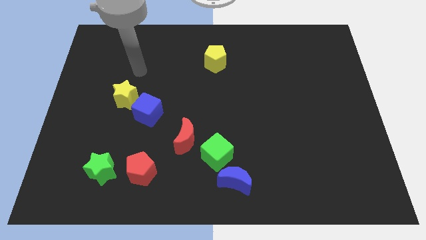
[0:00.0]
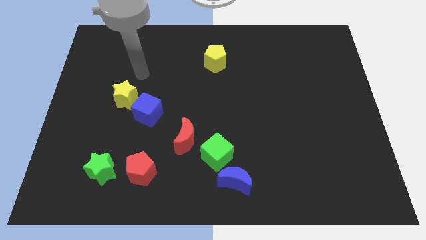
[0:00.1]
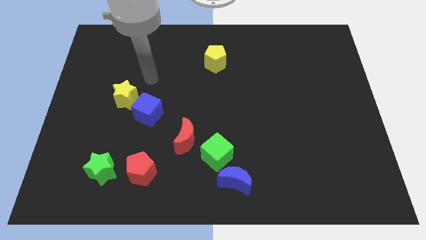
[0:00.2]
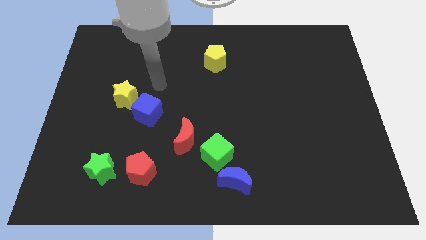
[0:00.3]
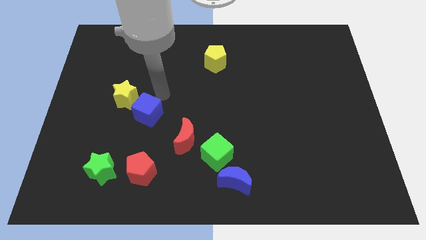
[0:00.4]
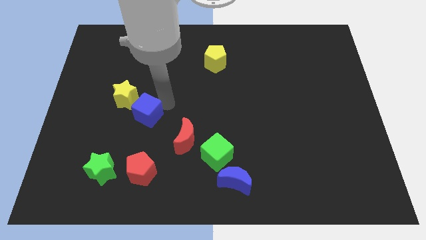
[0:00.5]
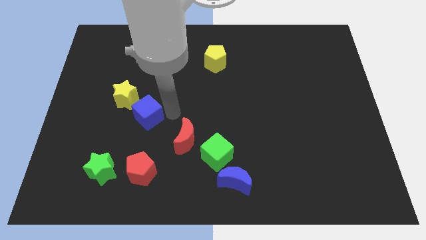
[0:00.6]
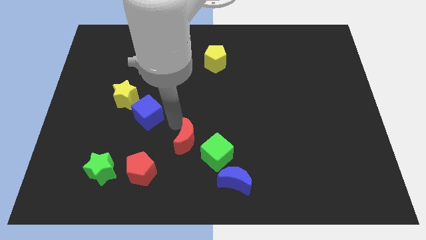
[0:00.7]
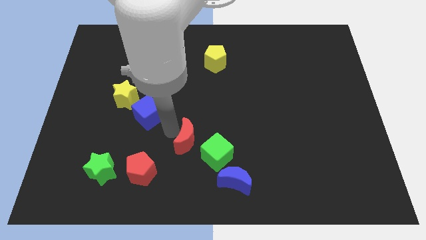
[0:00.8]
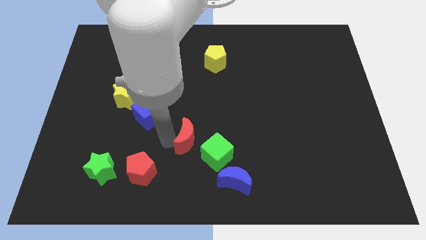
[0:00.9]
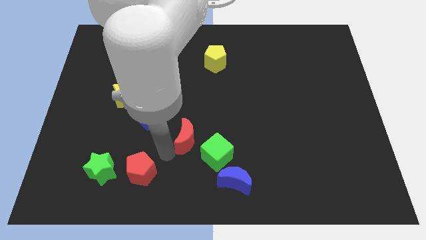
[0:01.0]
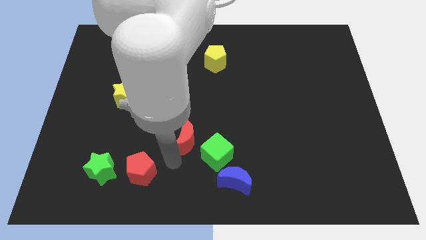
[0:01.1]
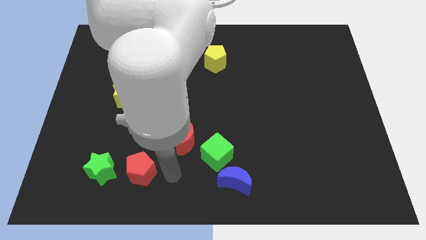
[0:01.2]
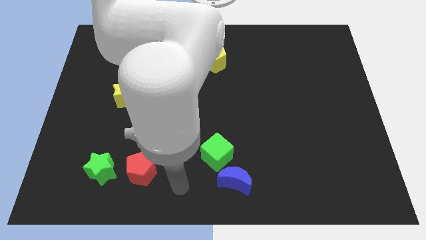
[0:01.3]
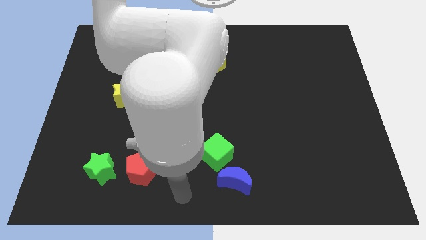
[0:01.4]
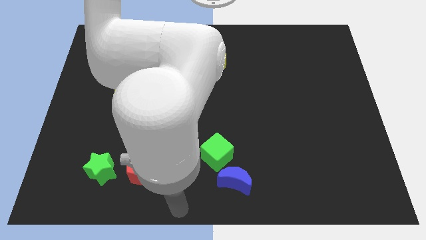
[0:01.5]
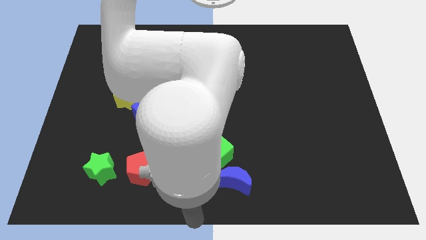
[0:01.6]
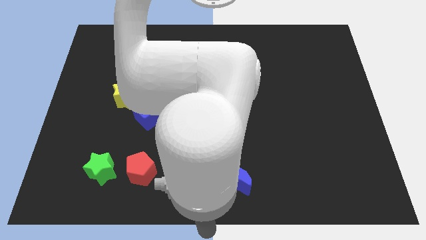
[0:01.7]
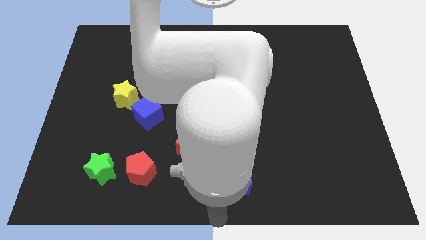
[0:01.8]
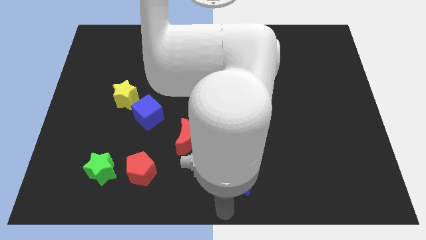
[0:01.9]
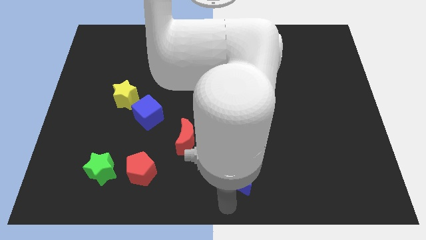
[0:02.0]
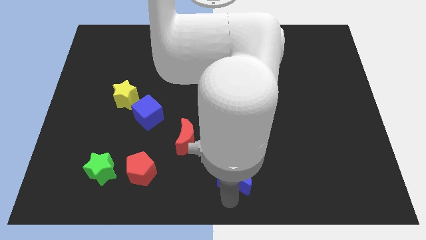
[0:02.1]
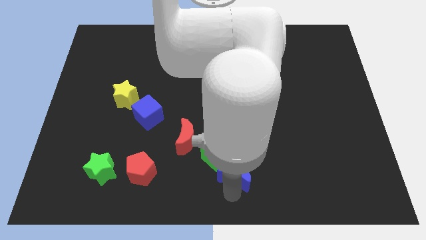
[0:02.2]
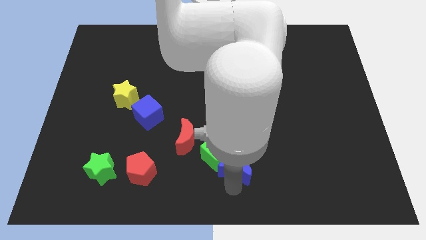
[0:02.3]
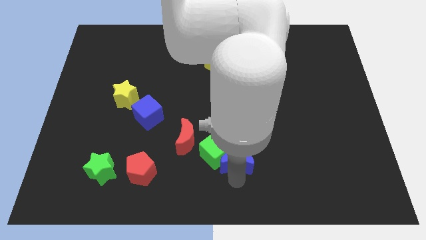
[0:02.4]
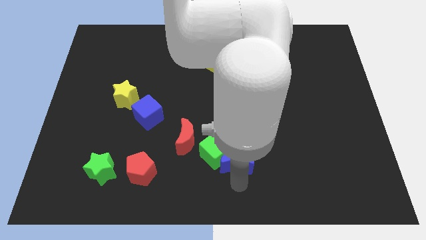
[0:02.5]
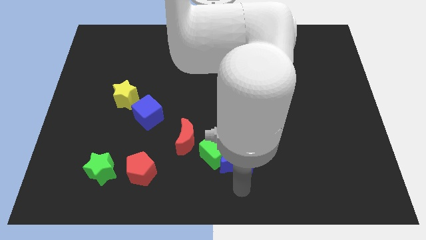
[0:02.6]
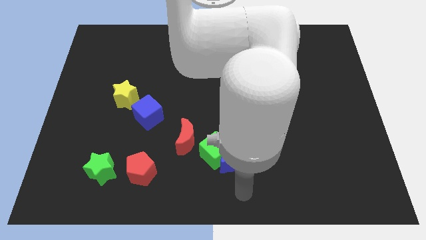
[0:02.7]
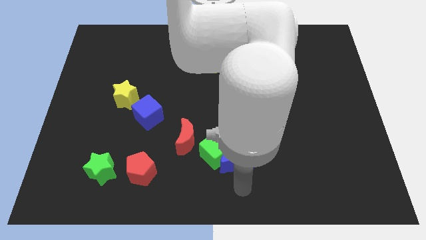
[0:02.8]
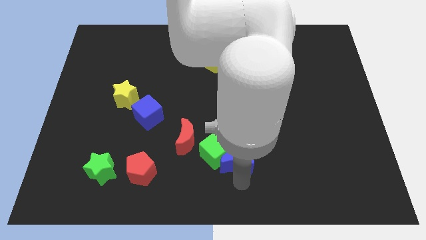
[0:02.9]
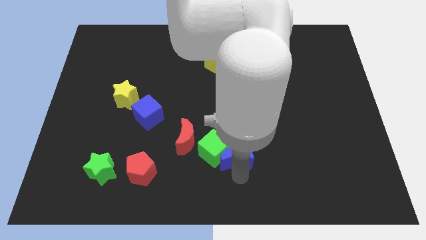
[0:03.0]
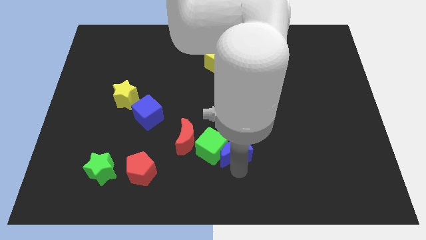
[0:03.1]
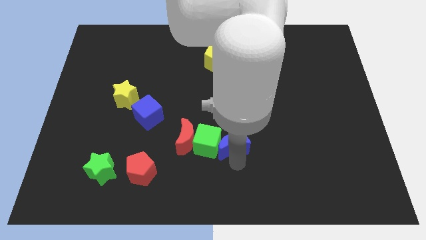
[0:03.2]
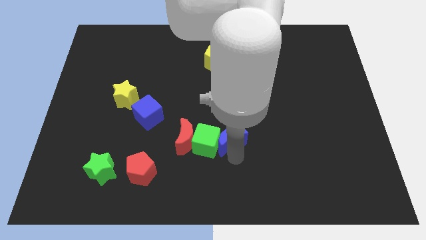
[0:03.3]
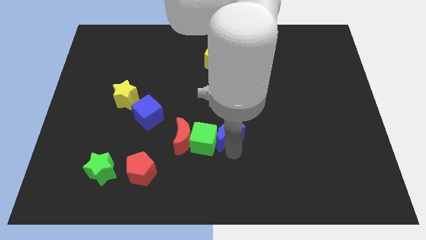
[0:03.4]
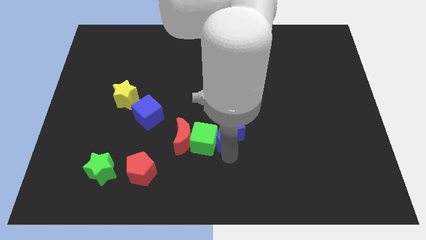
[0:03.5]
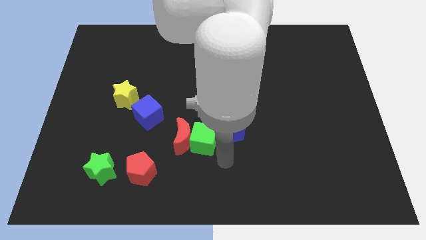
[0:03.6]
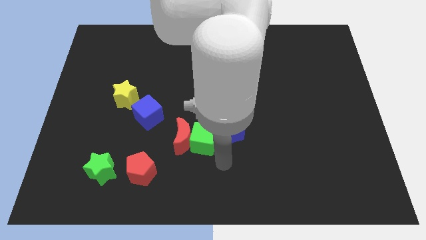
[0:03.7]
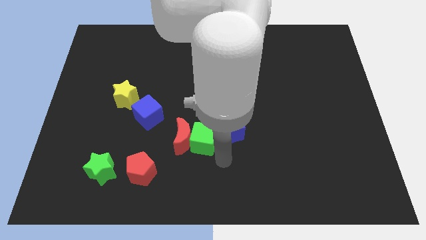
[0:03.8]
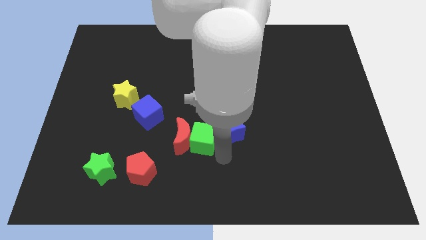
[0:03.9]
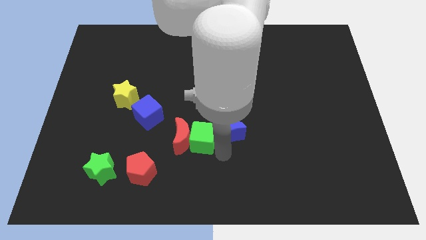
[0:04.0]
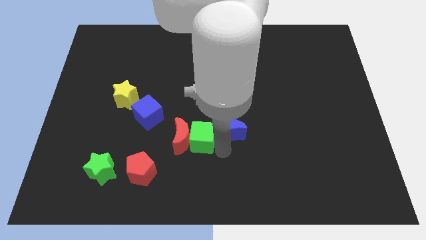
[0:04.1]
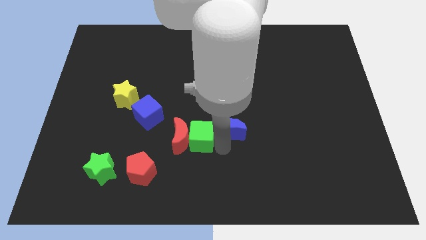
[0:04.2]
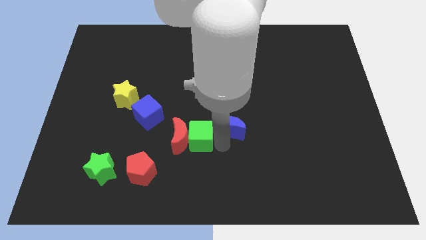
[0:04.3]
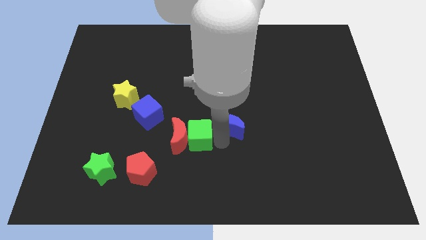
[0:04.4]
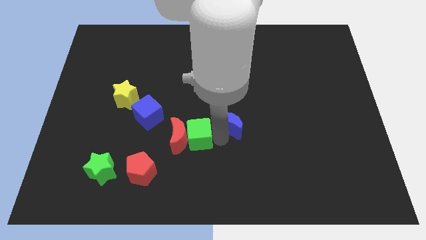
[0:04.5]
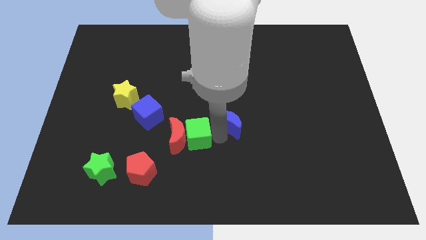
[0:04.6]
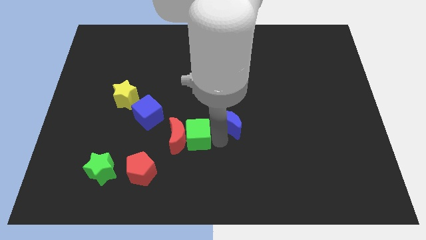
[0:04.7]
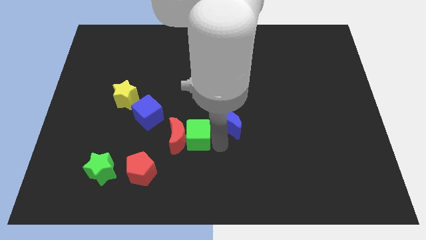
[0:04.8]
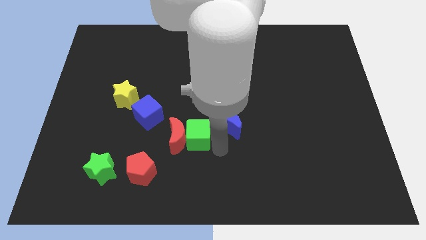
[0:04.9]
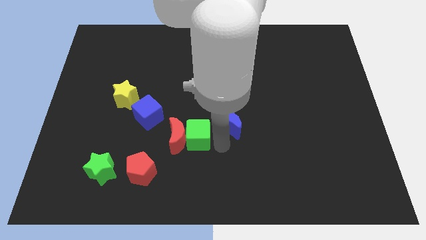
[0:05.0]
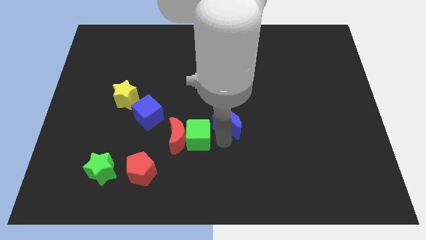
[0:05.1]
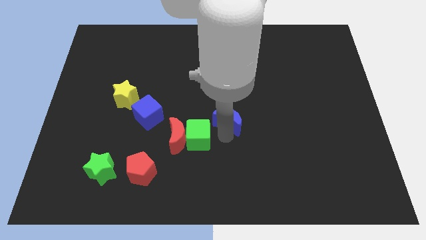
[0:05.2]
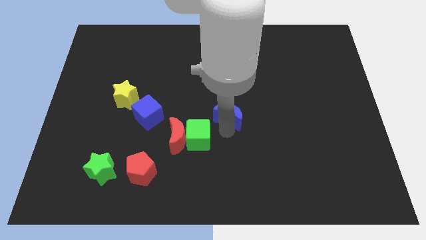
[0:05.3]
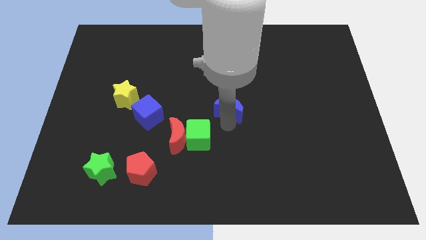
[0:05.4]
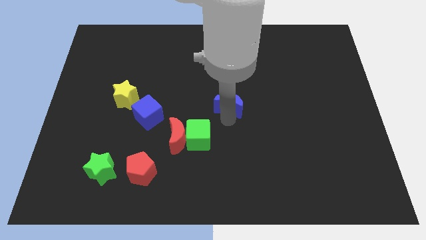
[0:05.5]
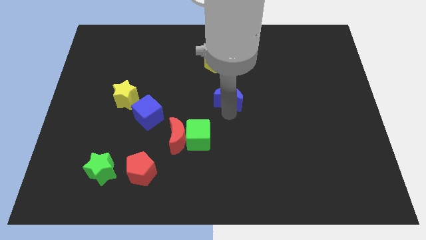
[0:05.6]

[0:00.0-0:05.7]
slide the blue moon up

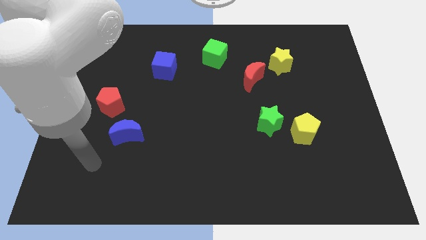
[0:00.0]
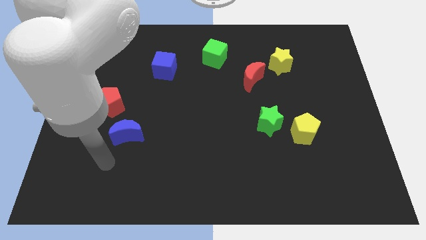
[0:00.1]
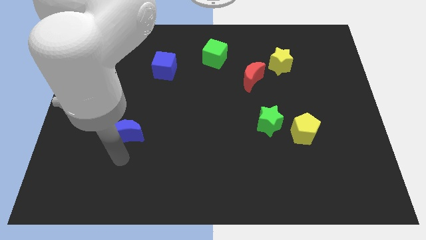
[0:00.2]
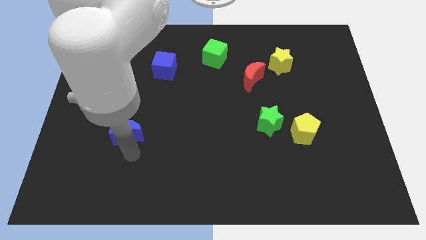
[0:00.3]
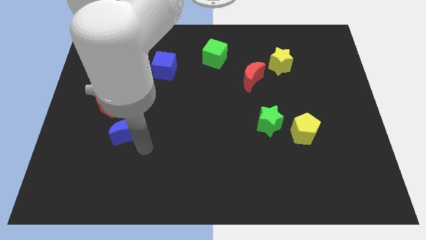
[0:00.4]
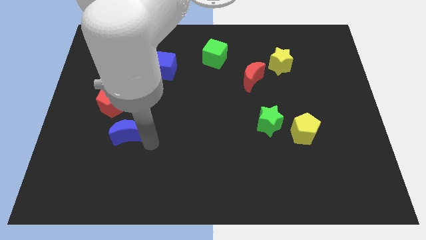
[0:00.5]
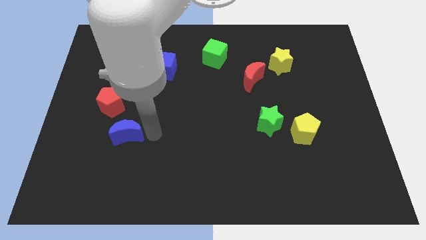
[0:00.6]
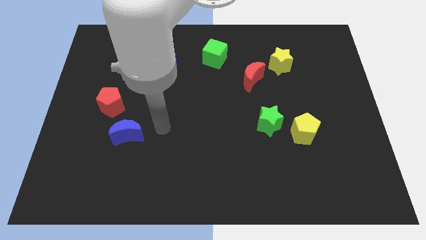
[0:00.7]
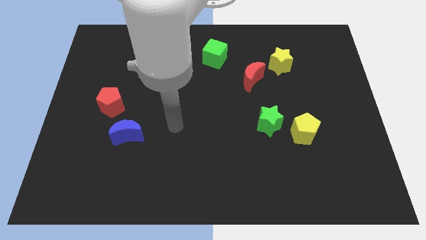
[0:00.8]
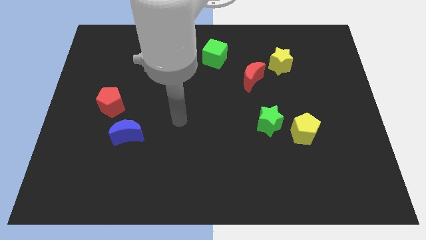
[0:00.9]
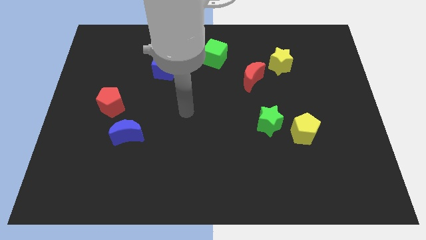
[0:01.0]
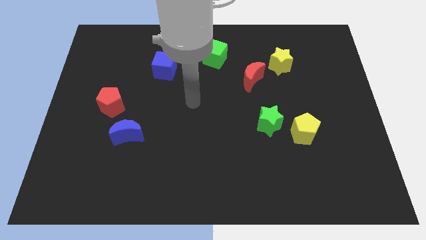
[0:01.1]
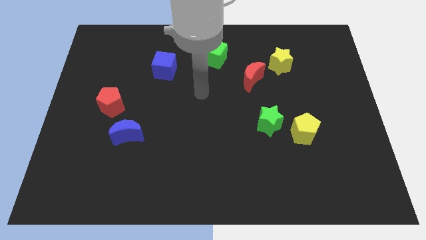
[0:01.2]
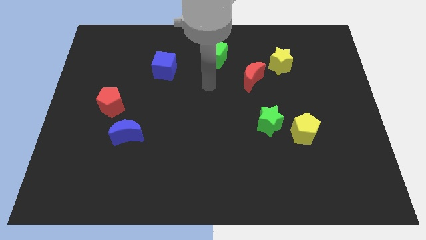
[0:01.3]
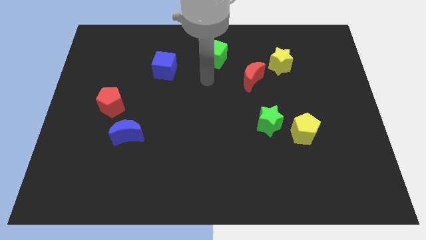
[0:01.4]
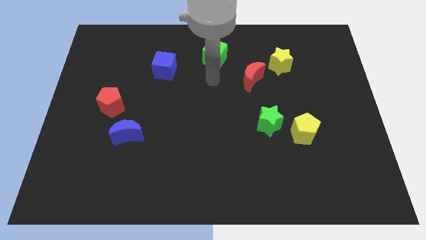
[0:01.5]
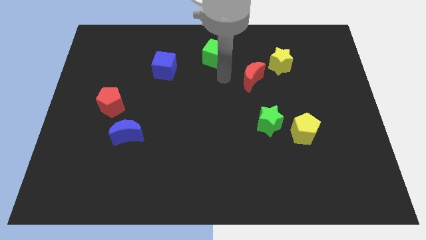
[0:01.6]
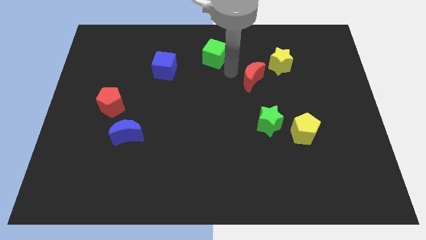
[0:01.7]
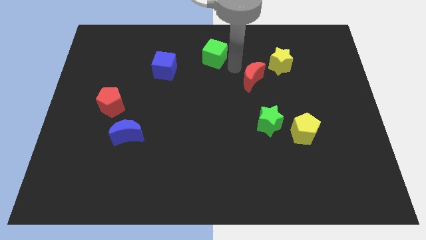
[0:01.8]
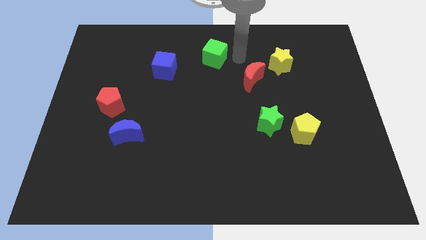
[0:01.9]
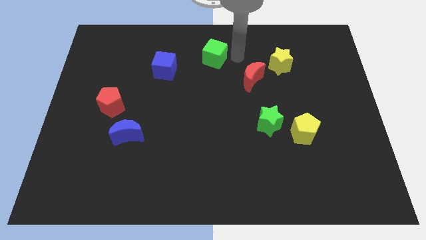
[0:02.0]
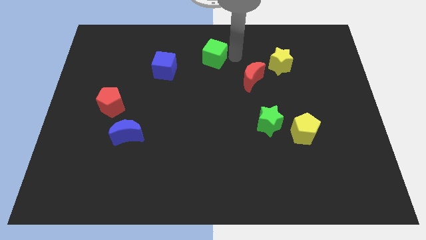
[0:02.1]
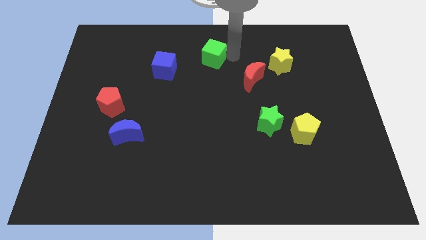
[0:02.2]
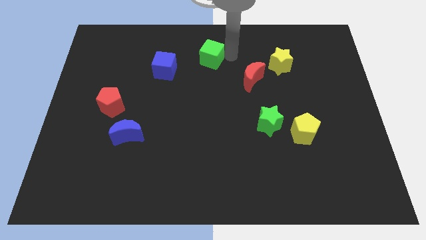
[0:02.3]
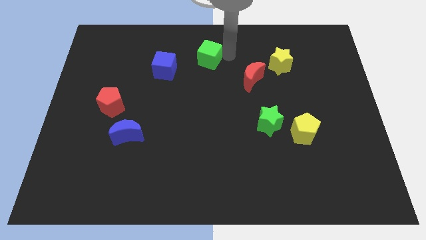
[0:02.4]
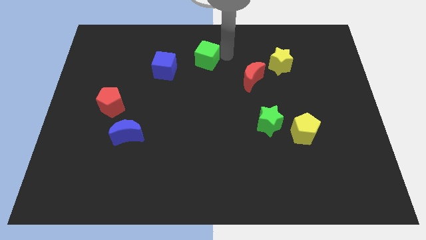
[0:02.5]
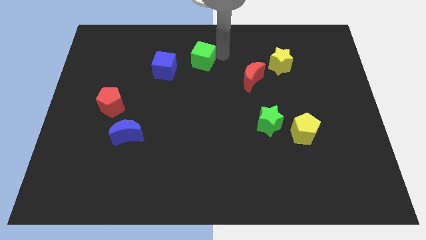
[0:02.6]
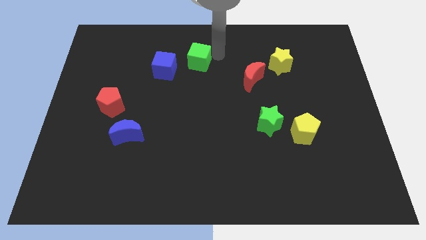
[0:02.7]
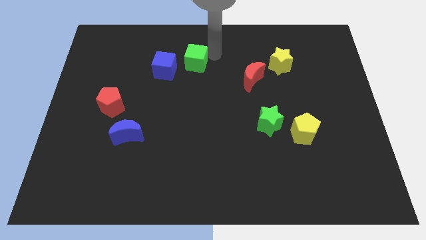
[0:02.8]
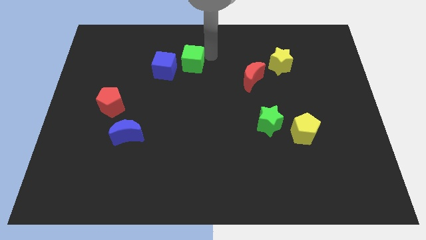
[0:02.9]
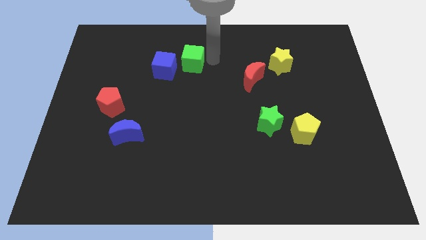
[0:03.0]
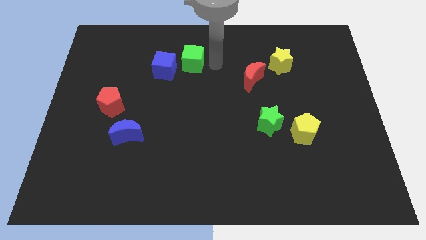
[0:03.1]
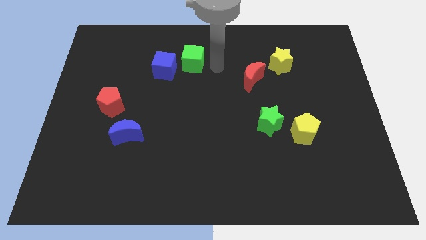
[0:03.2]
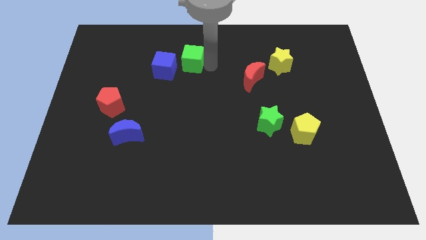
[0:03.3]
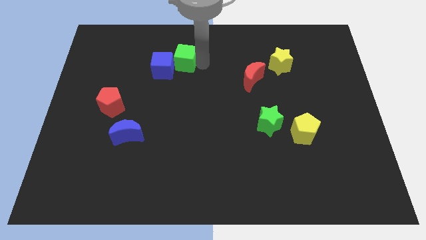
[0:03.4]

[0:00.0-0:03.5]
slightly slide the green cube left
